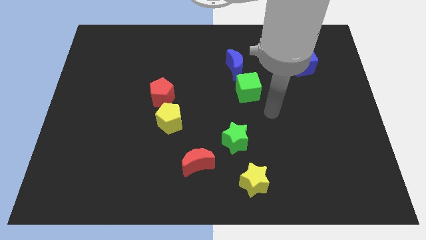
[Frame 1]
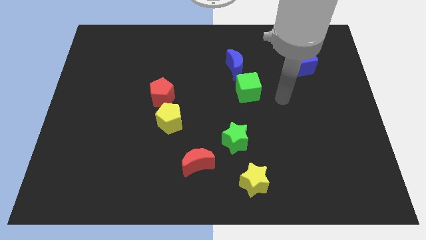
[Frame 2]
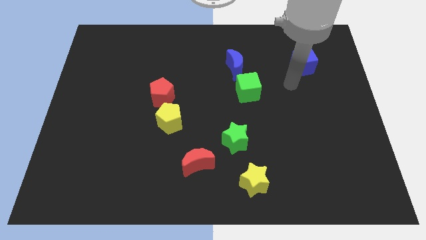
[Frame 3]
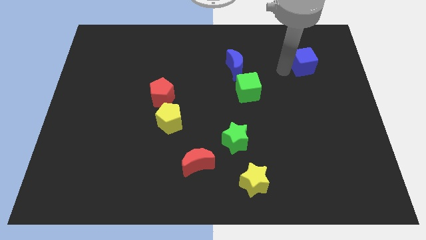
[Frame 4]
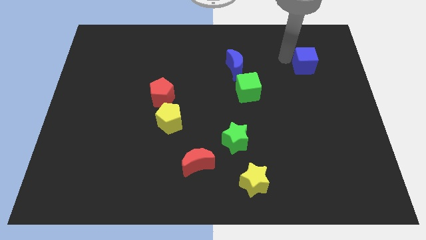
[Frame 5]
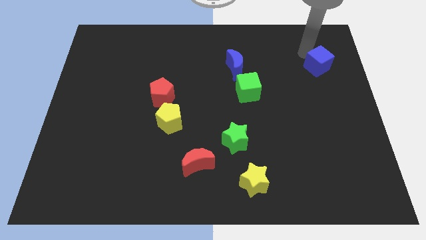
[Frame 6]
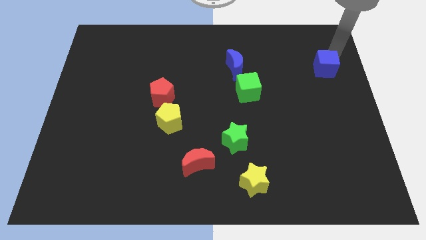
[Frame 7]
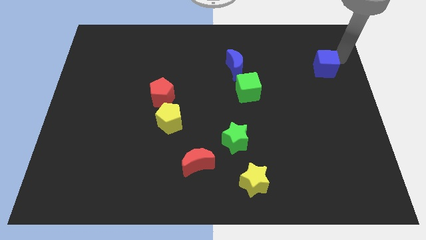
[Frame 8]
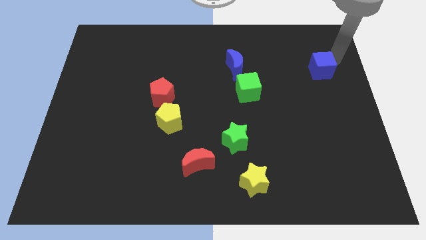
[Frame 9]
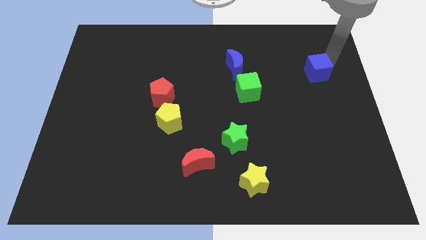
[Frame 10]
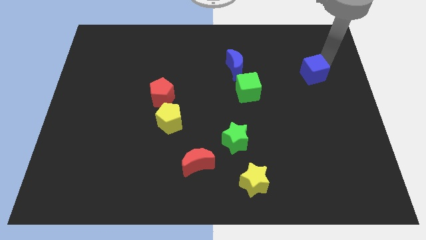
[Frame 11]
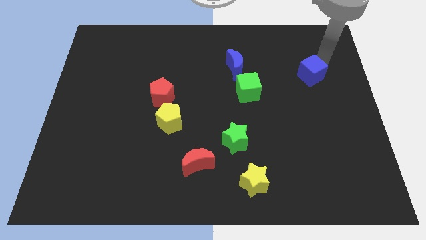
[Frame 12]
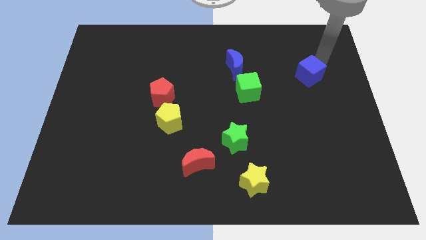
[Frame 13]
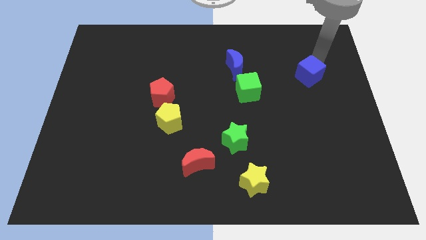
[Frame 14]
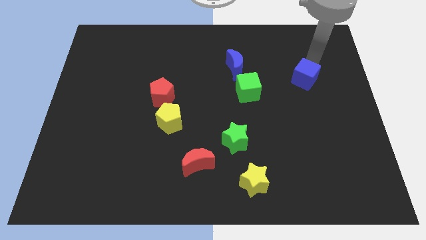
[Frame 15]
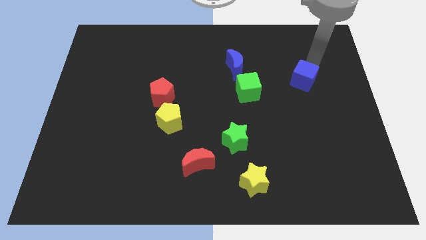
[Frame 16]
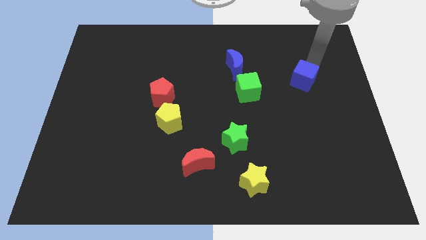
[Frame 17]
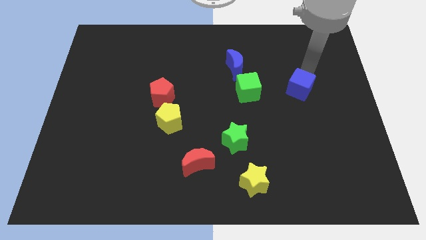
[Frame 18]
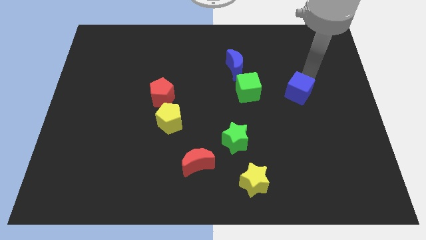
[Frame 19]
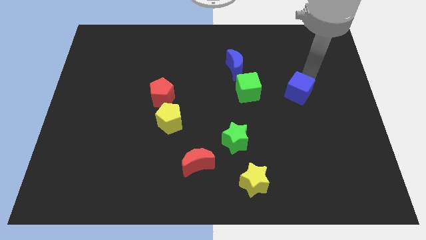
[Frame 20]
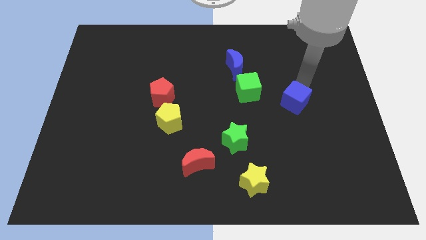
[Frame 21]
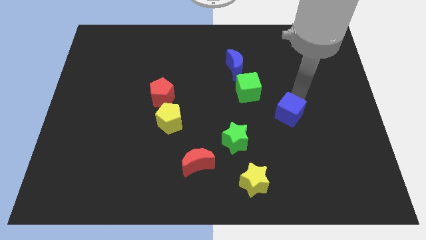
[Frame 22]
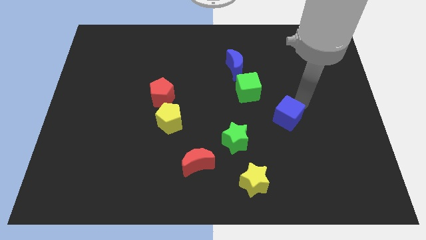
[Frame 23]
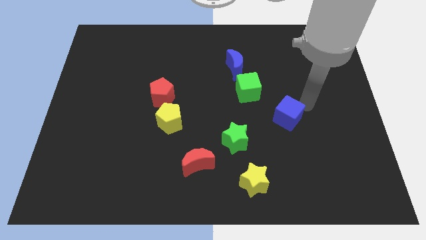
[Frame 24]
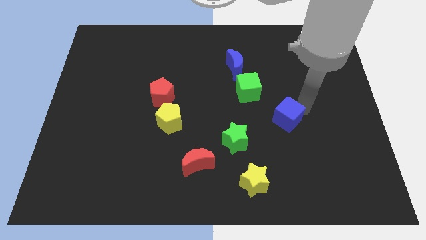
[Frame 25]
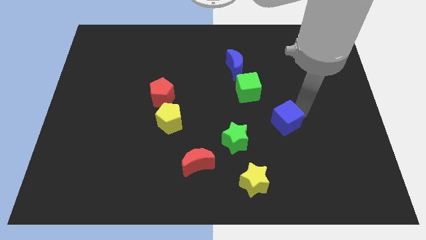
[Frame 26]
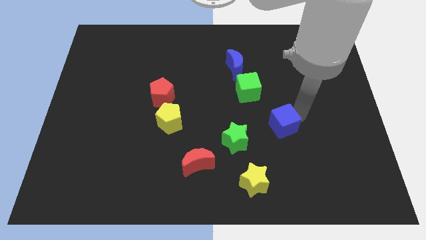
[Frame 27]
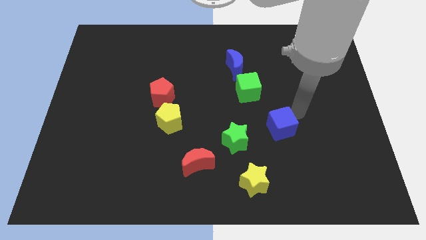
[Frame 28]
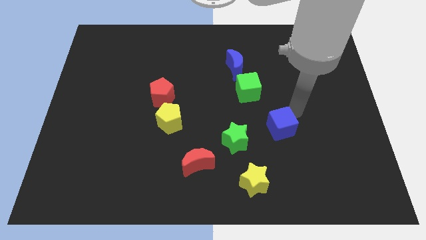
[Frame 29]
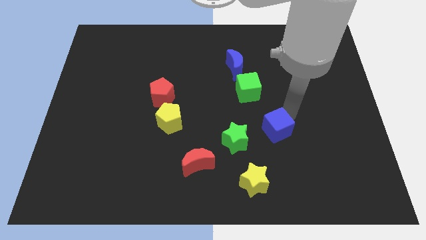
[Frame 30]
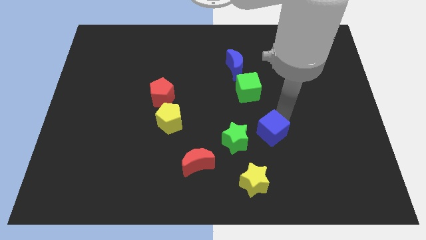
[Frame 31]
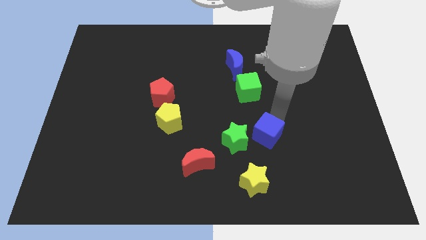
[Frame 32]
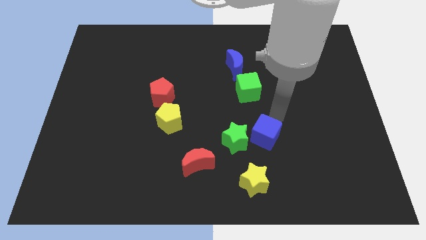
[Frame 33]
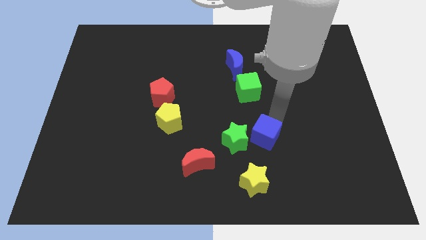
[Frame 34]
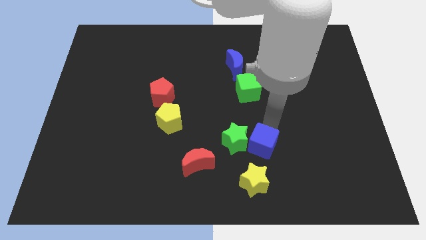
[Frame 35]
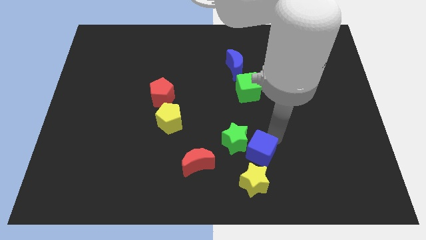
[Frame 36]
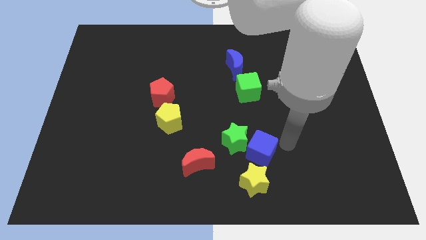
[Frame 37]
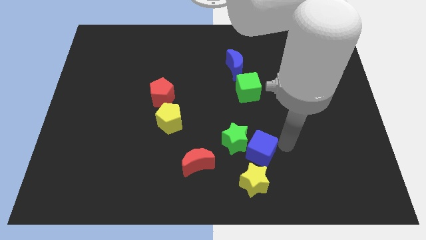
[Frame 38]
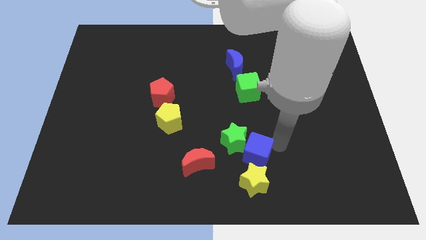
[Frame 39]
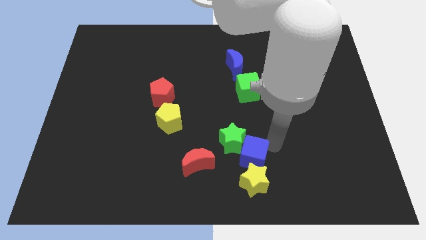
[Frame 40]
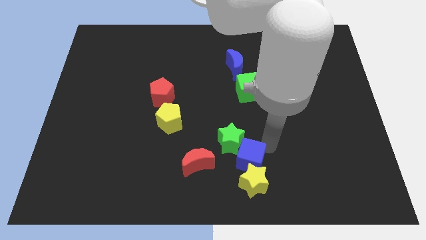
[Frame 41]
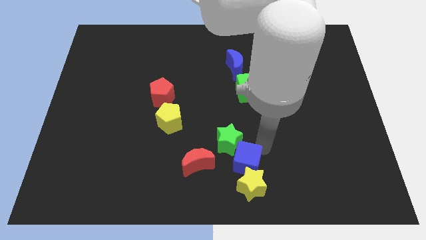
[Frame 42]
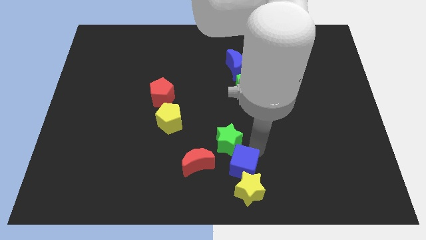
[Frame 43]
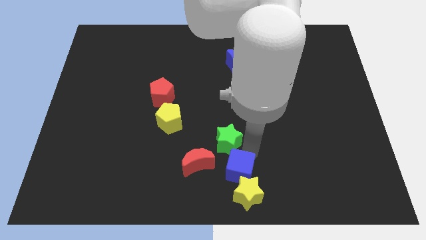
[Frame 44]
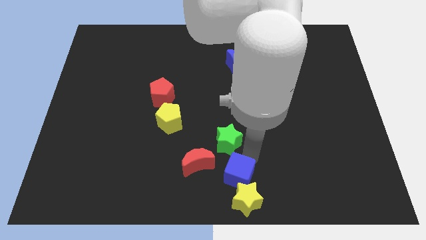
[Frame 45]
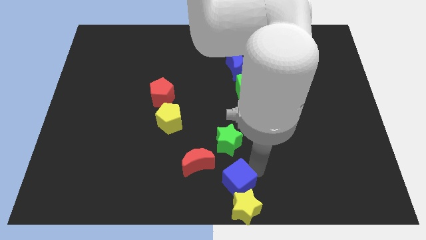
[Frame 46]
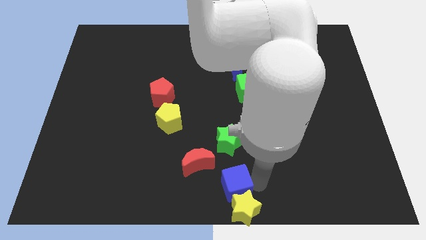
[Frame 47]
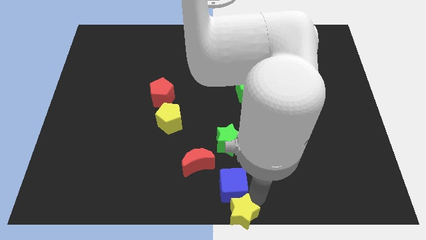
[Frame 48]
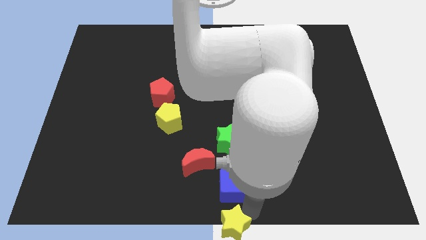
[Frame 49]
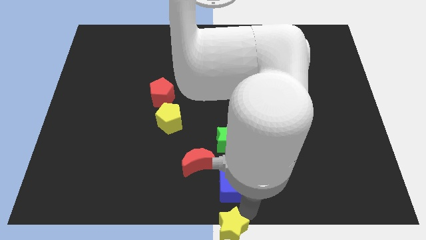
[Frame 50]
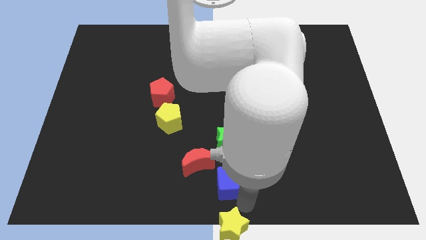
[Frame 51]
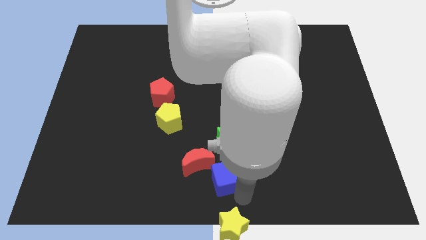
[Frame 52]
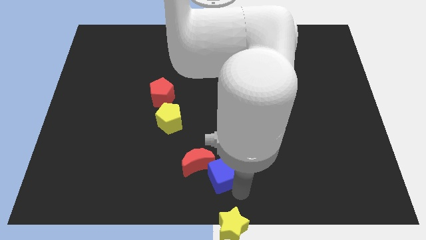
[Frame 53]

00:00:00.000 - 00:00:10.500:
slide the blue cube close to the red moon

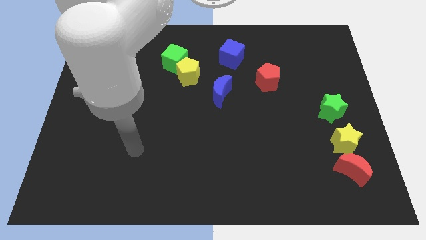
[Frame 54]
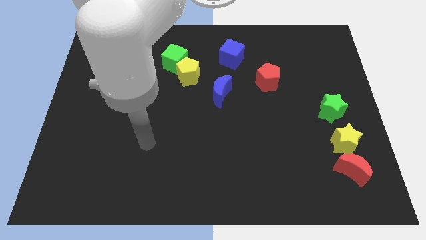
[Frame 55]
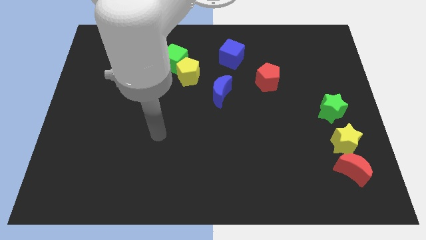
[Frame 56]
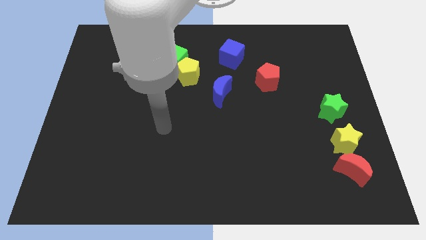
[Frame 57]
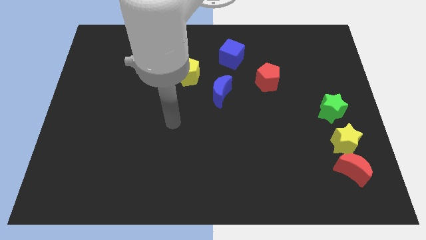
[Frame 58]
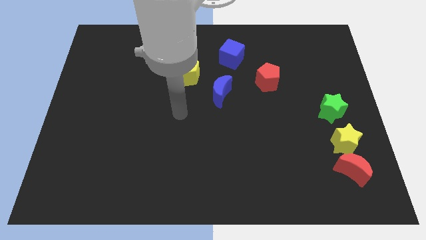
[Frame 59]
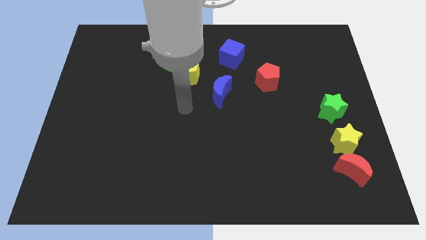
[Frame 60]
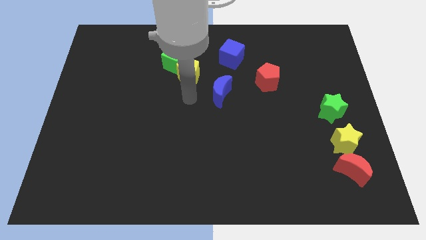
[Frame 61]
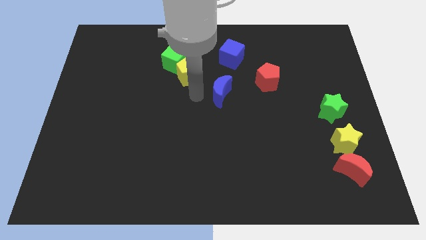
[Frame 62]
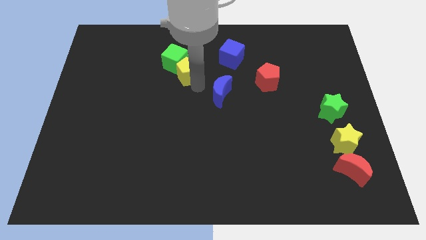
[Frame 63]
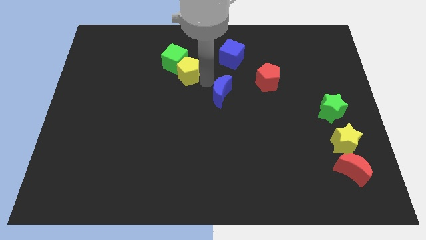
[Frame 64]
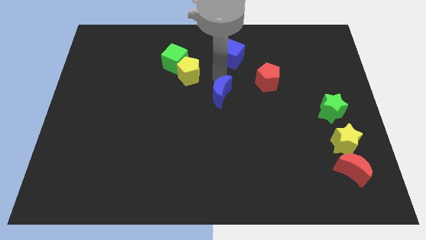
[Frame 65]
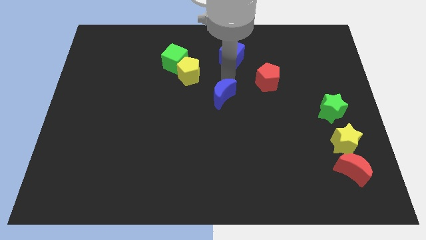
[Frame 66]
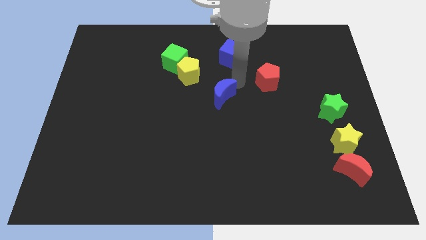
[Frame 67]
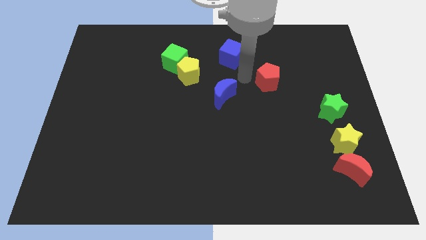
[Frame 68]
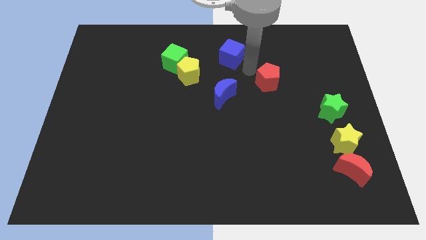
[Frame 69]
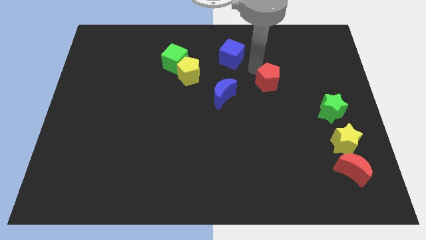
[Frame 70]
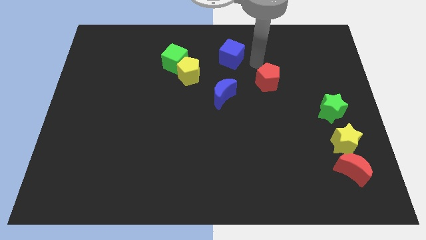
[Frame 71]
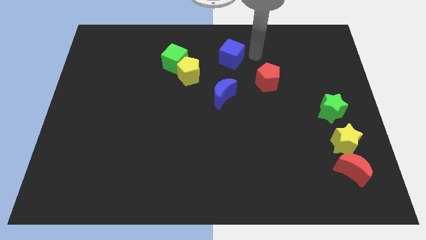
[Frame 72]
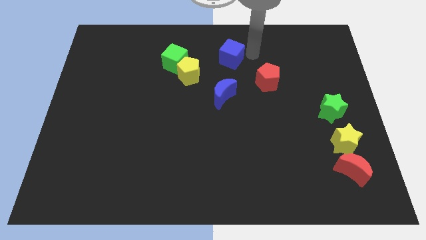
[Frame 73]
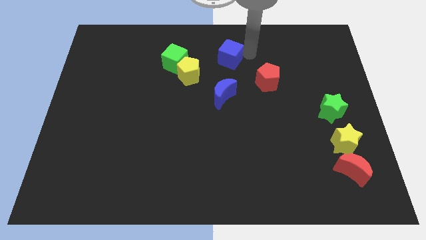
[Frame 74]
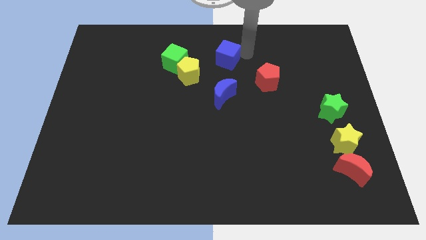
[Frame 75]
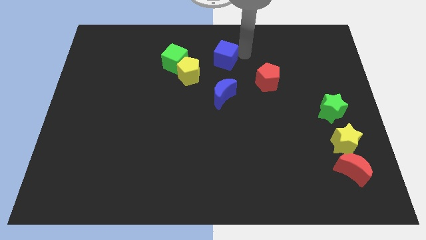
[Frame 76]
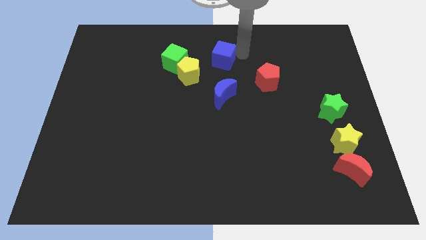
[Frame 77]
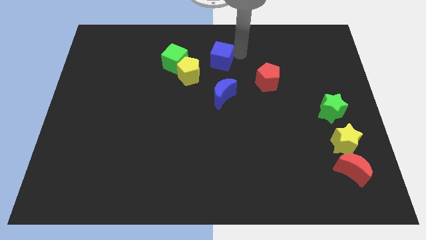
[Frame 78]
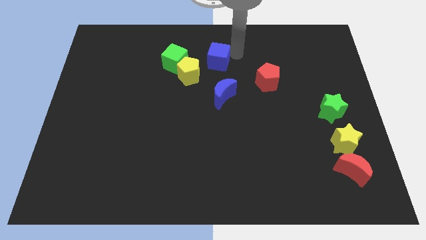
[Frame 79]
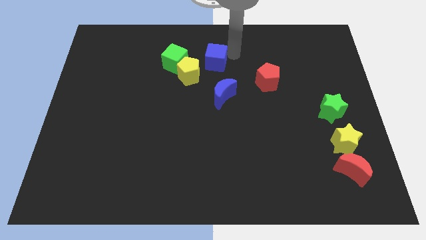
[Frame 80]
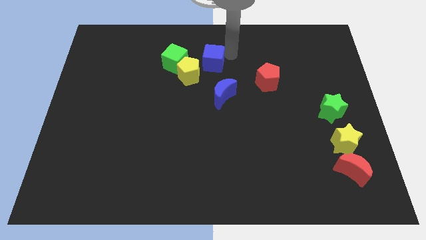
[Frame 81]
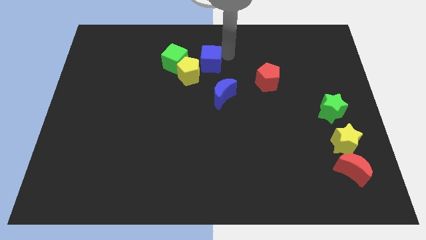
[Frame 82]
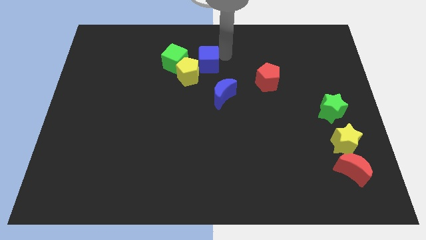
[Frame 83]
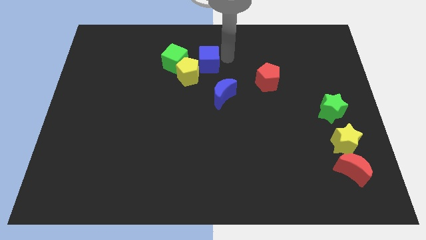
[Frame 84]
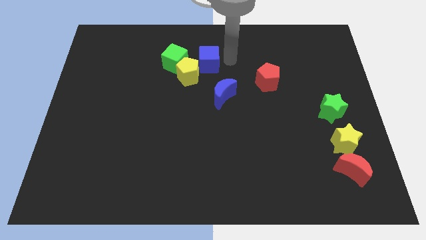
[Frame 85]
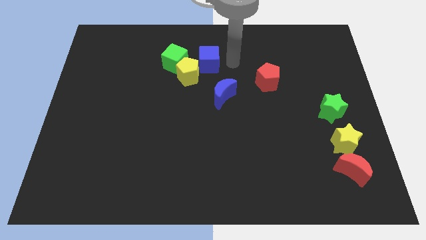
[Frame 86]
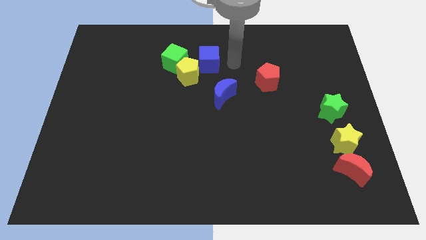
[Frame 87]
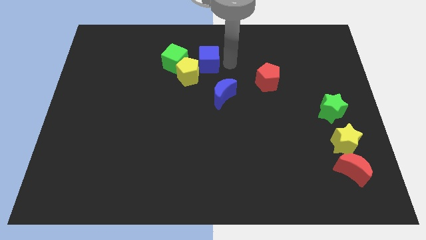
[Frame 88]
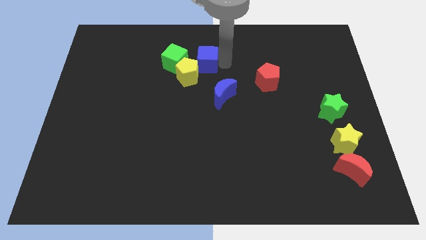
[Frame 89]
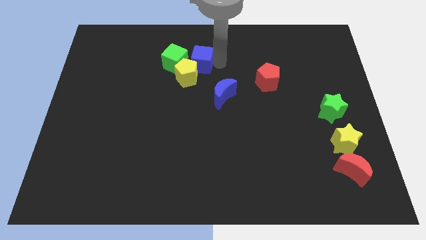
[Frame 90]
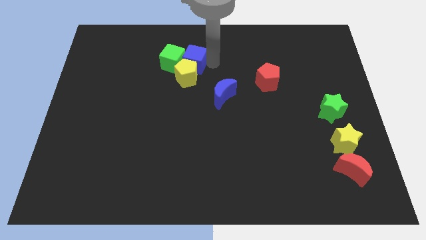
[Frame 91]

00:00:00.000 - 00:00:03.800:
move the blue cube to the green cube
